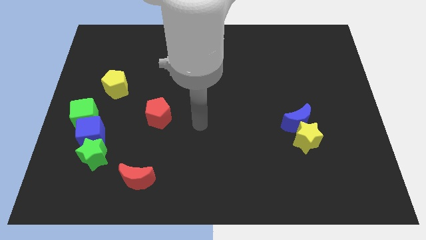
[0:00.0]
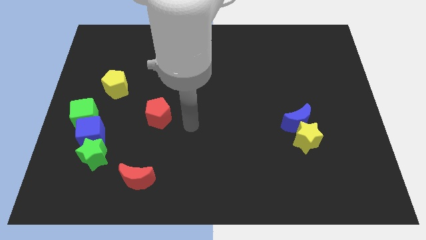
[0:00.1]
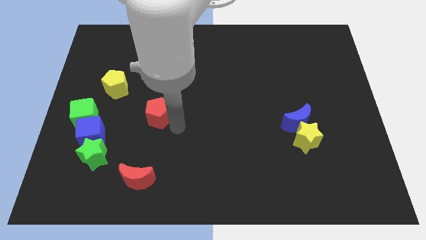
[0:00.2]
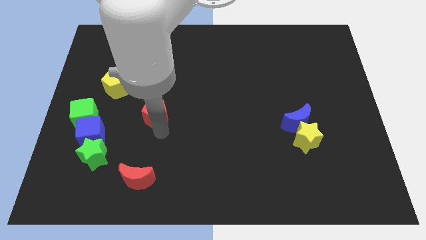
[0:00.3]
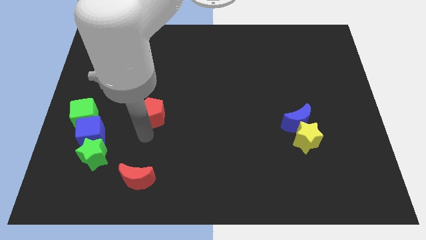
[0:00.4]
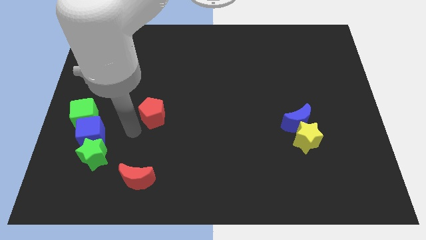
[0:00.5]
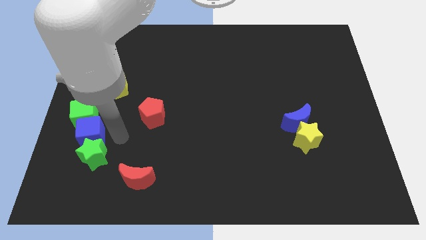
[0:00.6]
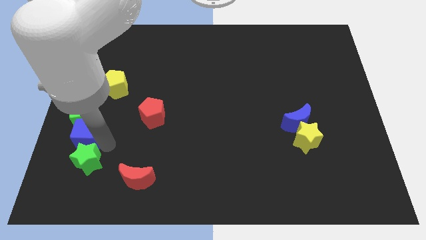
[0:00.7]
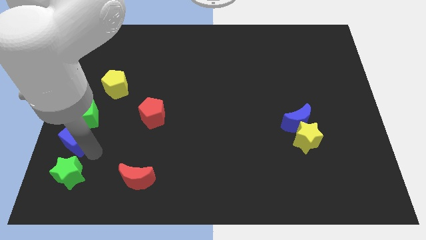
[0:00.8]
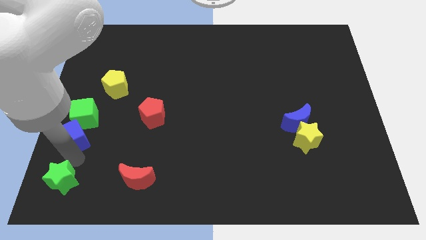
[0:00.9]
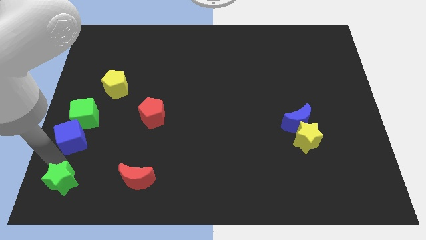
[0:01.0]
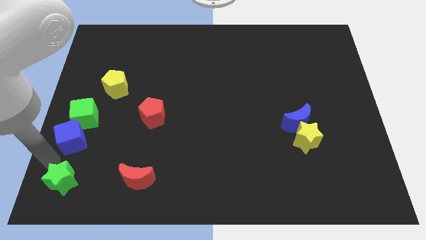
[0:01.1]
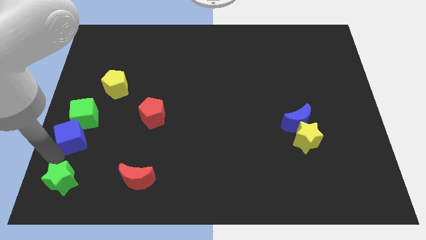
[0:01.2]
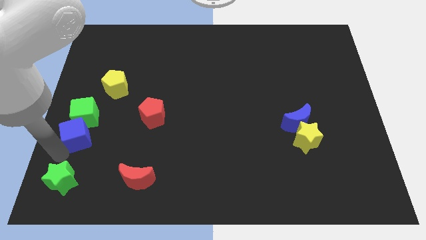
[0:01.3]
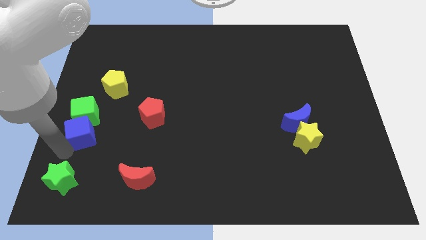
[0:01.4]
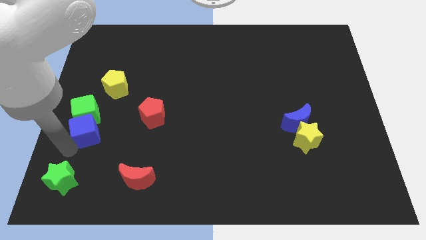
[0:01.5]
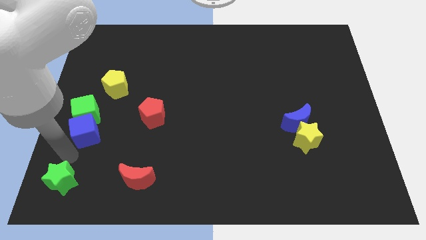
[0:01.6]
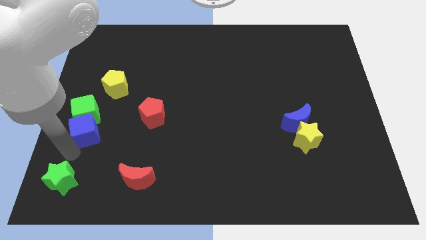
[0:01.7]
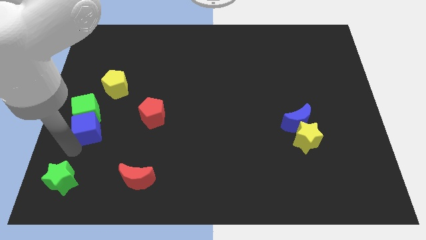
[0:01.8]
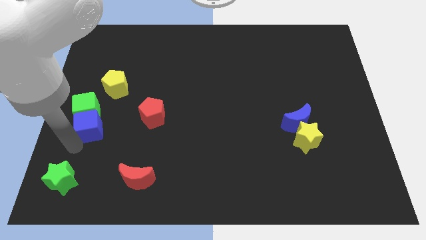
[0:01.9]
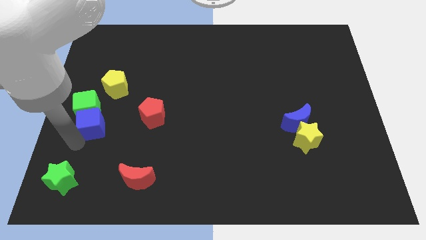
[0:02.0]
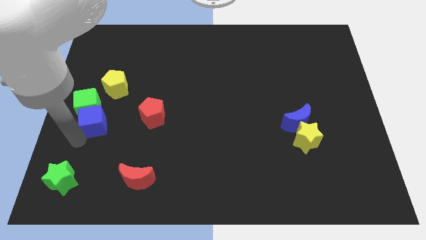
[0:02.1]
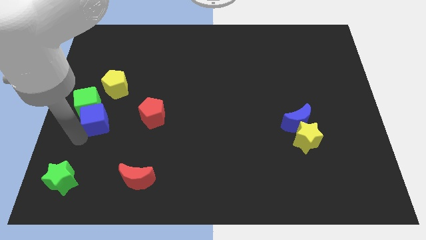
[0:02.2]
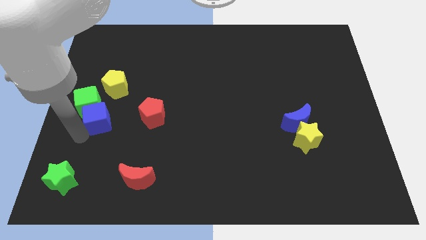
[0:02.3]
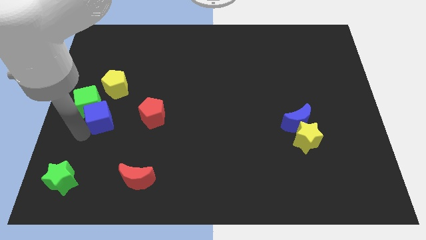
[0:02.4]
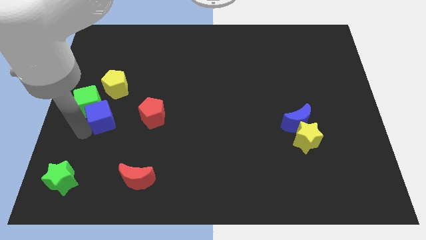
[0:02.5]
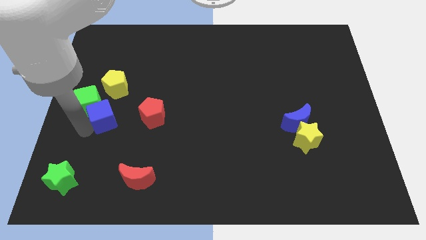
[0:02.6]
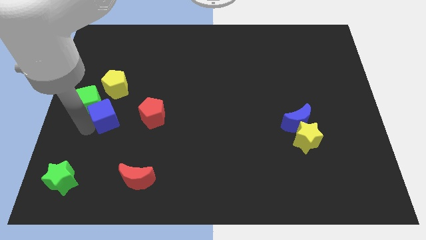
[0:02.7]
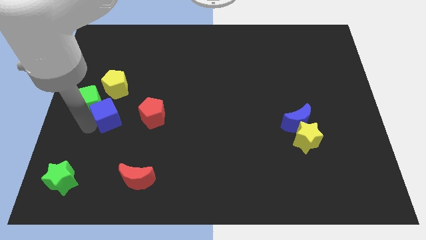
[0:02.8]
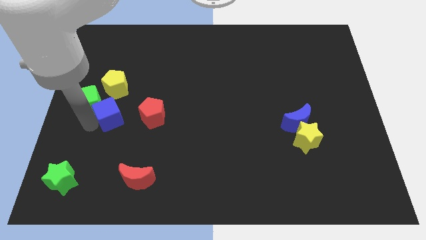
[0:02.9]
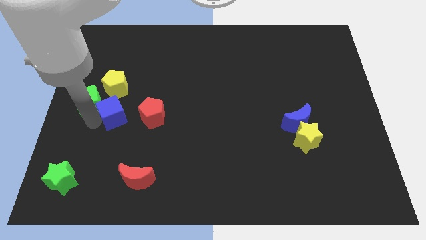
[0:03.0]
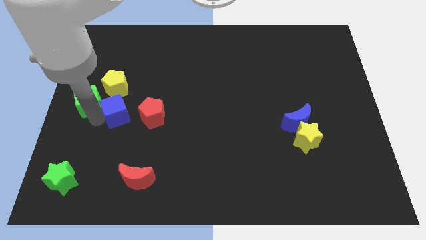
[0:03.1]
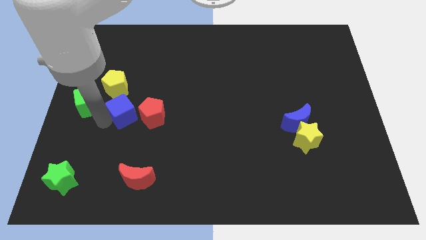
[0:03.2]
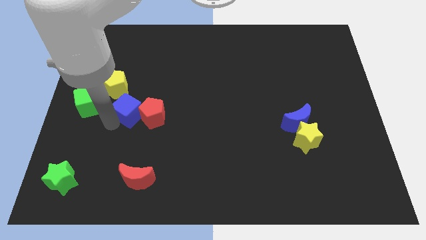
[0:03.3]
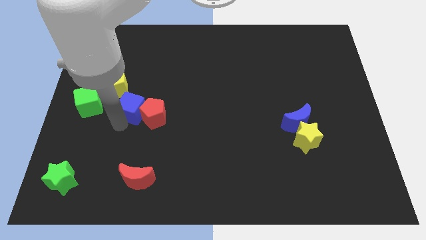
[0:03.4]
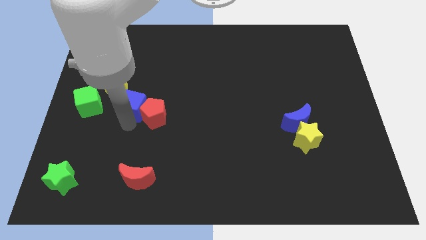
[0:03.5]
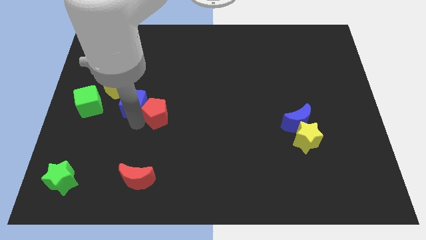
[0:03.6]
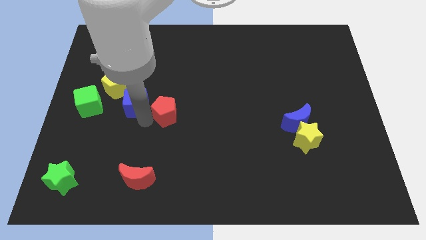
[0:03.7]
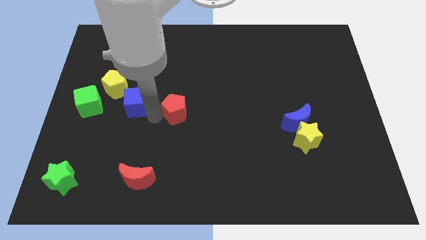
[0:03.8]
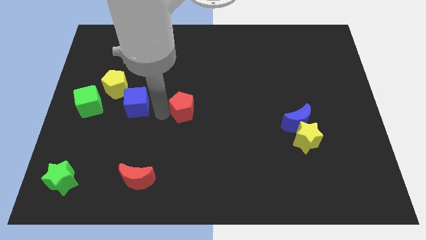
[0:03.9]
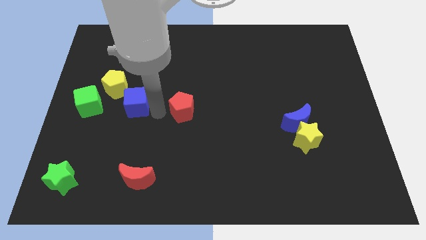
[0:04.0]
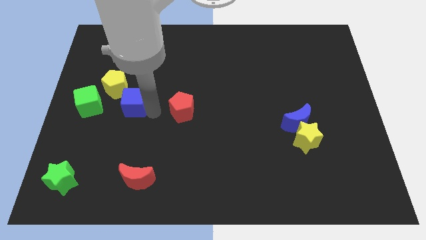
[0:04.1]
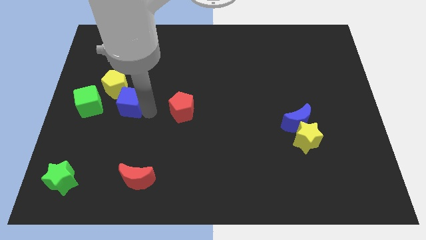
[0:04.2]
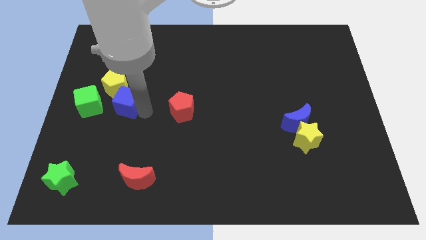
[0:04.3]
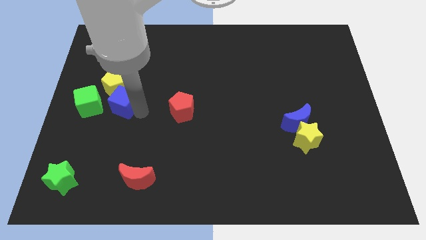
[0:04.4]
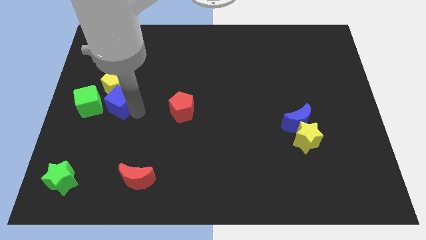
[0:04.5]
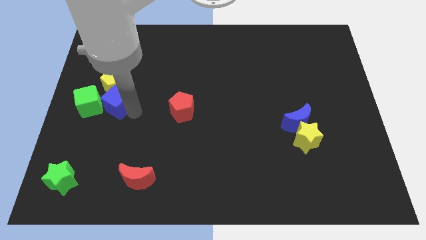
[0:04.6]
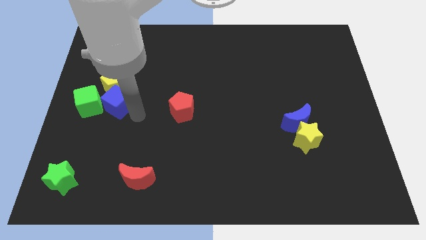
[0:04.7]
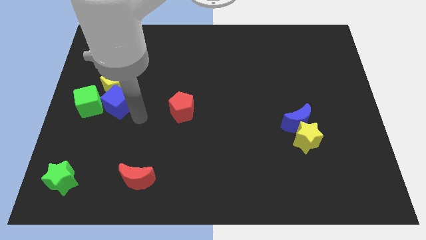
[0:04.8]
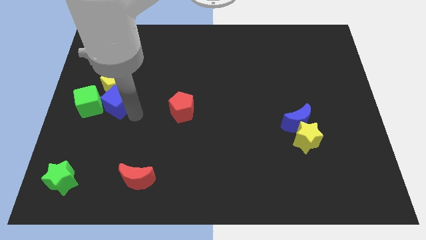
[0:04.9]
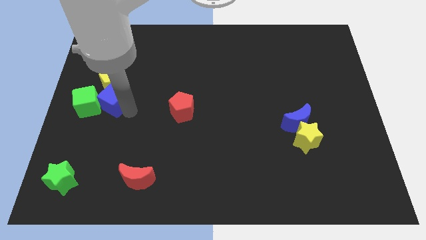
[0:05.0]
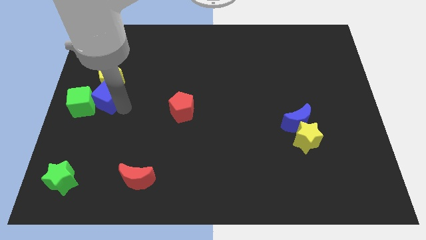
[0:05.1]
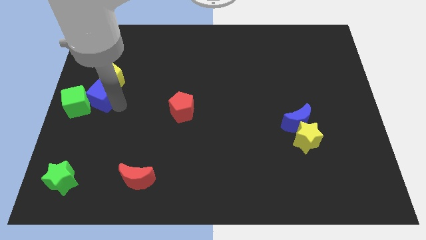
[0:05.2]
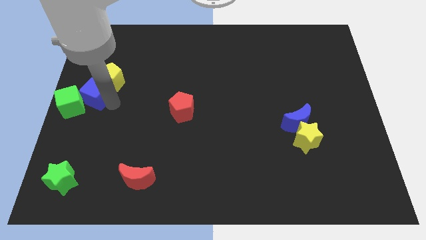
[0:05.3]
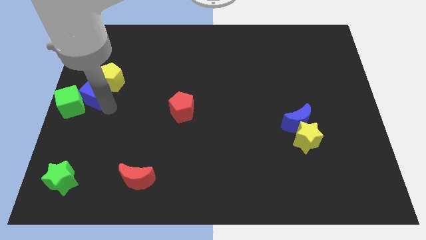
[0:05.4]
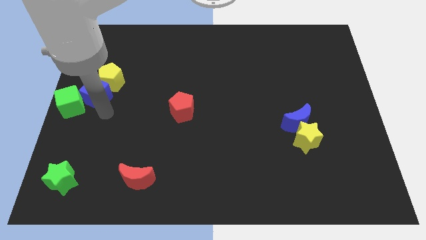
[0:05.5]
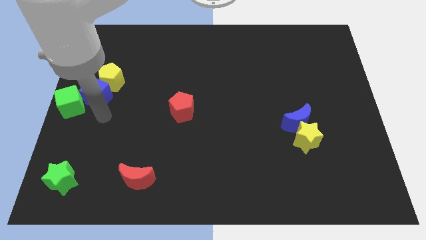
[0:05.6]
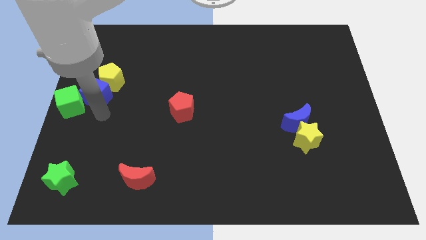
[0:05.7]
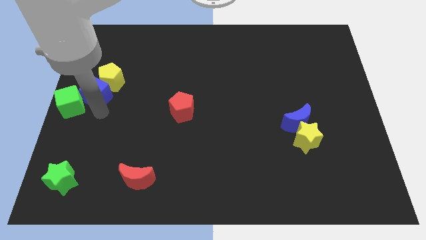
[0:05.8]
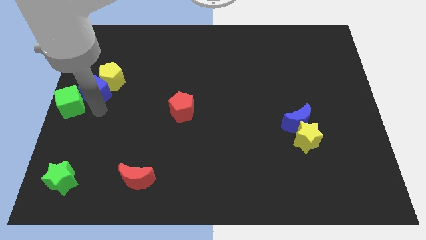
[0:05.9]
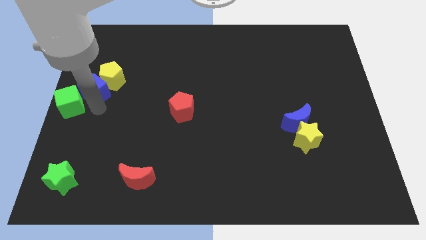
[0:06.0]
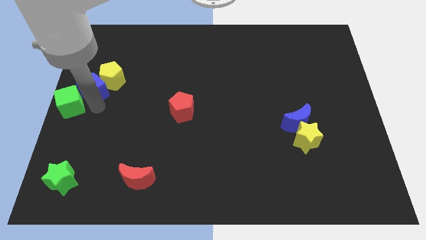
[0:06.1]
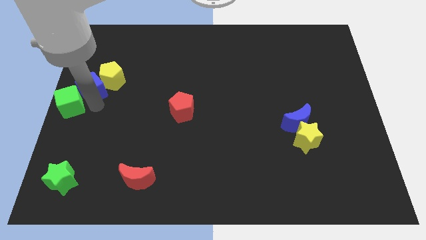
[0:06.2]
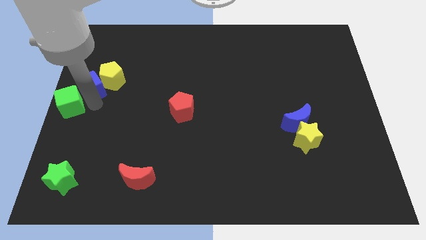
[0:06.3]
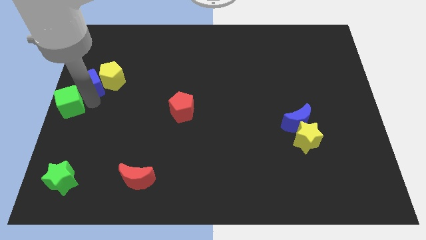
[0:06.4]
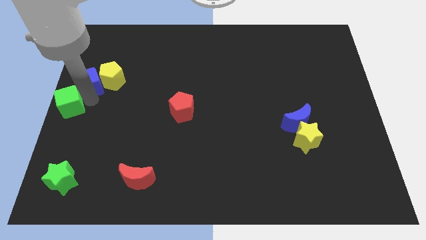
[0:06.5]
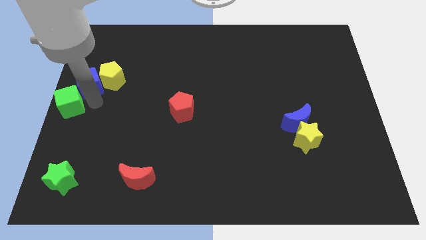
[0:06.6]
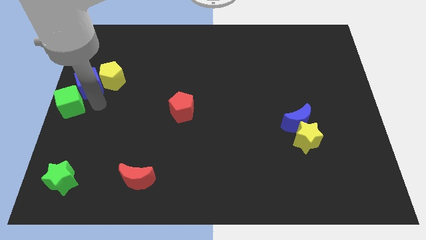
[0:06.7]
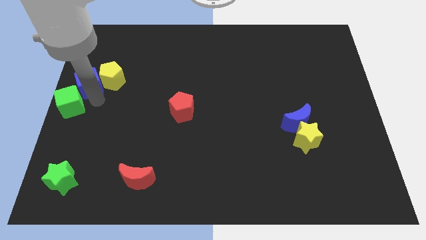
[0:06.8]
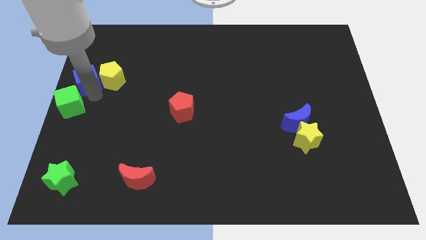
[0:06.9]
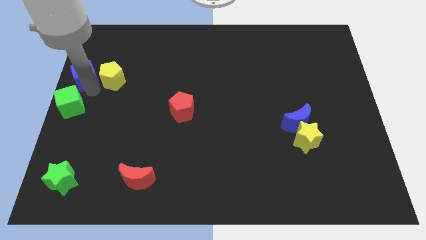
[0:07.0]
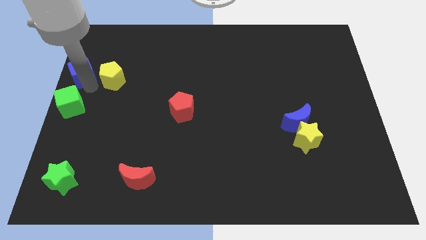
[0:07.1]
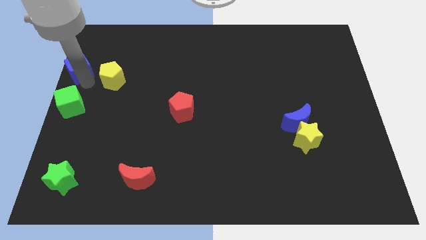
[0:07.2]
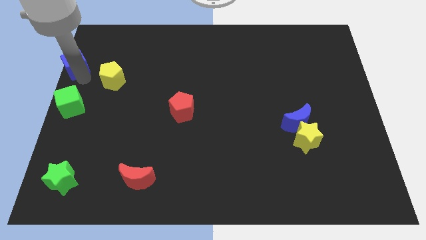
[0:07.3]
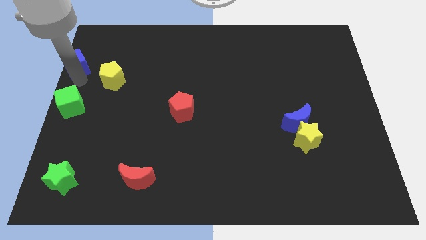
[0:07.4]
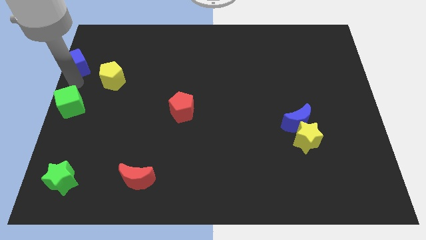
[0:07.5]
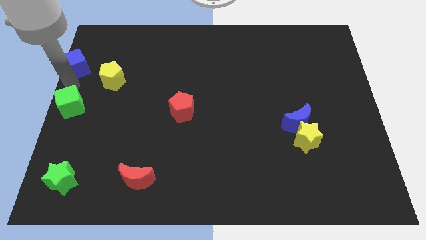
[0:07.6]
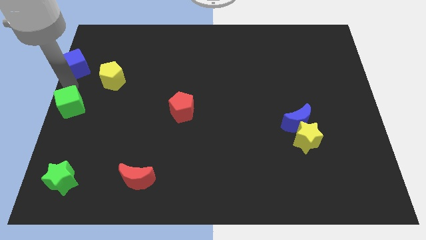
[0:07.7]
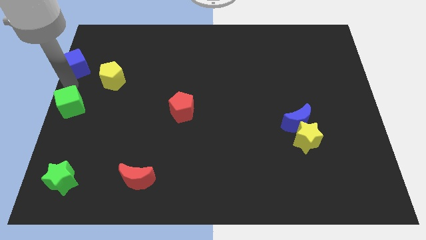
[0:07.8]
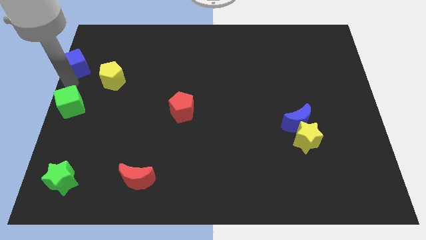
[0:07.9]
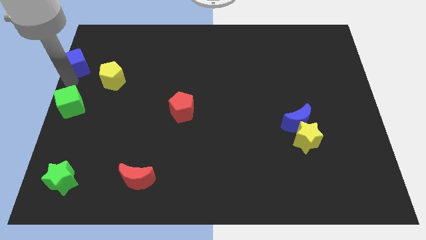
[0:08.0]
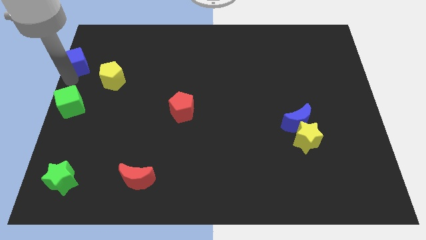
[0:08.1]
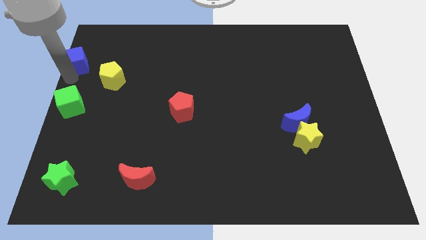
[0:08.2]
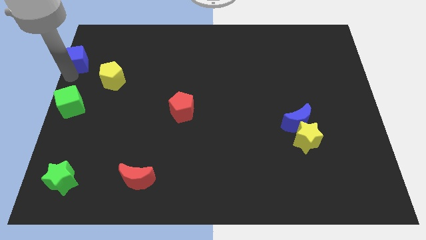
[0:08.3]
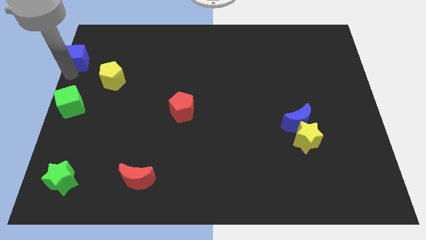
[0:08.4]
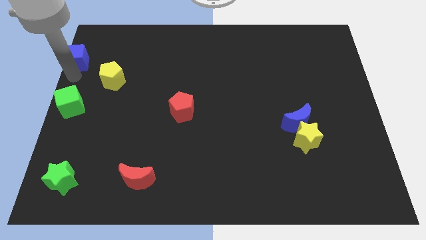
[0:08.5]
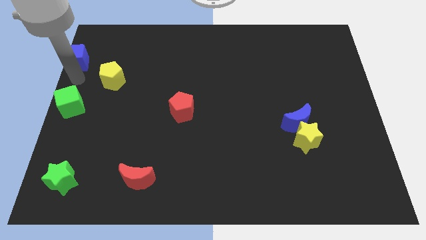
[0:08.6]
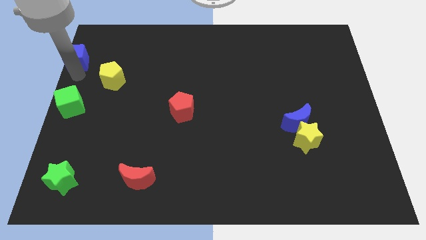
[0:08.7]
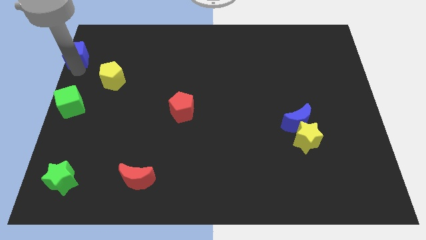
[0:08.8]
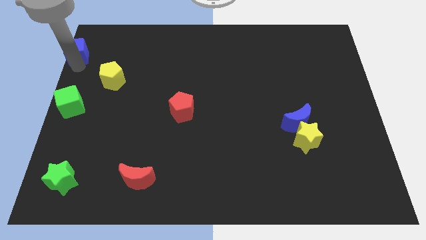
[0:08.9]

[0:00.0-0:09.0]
put the blue cube to the top left
